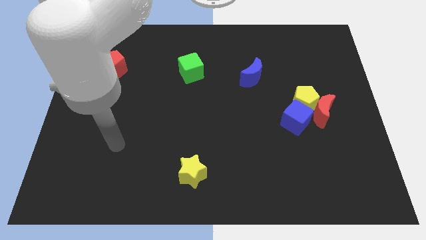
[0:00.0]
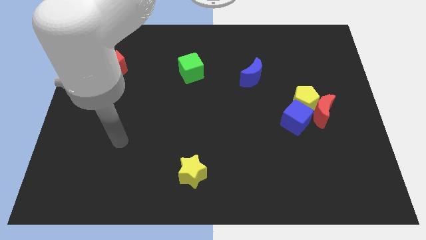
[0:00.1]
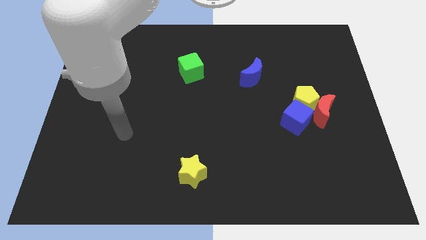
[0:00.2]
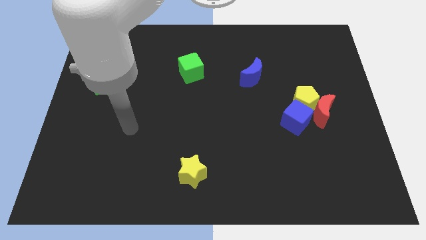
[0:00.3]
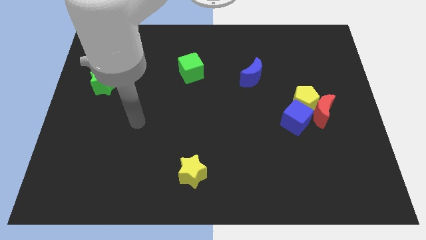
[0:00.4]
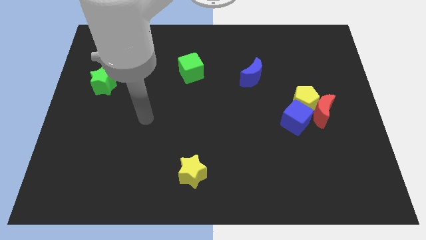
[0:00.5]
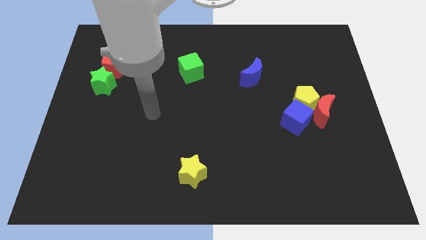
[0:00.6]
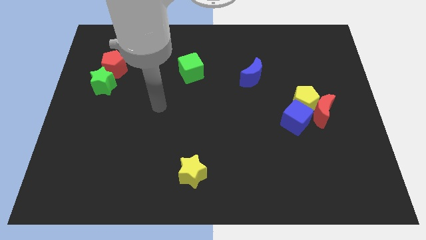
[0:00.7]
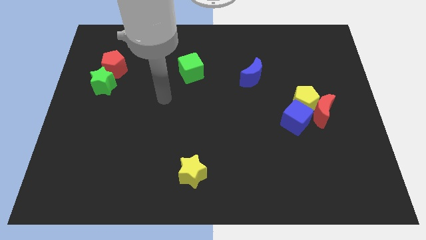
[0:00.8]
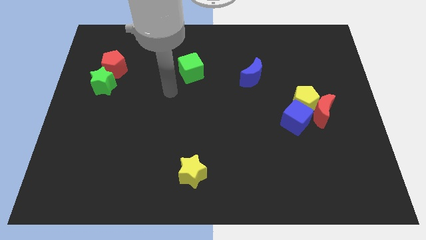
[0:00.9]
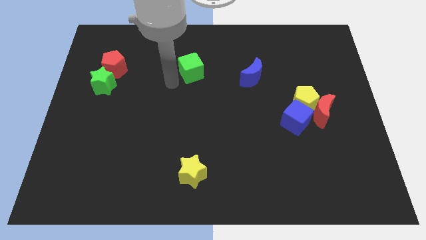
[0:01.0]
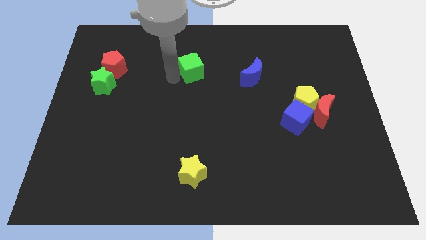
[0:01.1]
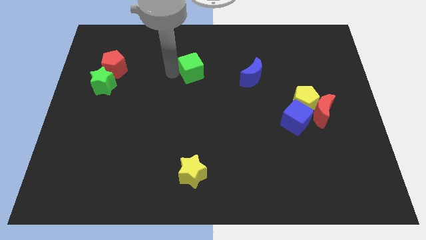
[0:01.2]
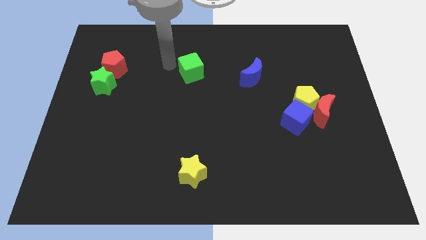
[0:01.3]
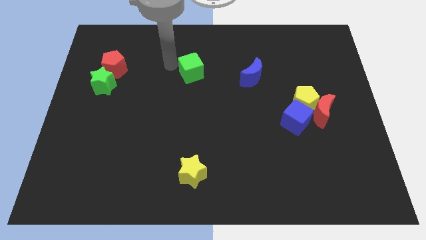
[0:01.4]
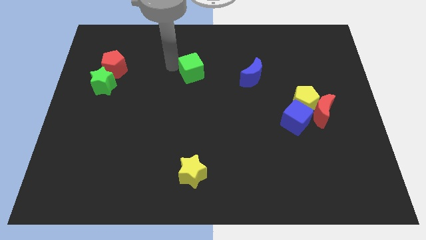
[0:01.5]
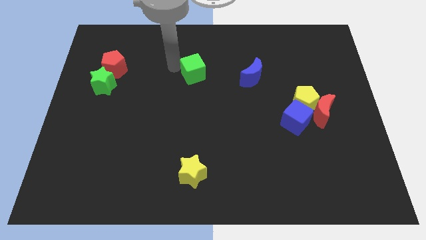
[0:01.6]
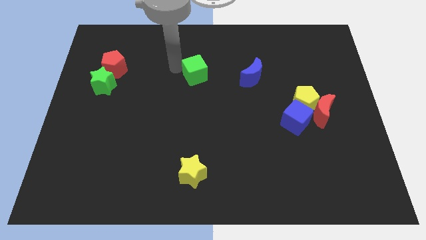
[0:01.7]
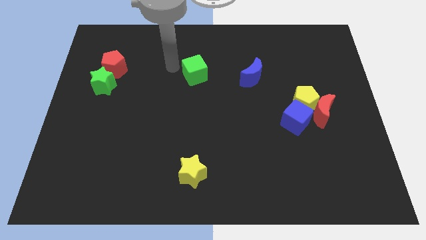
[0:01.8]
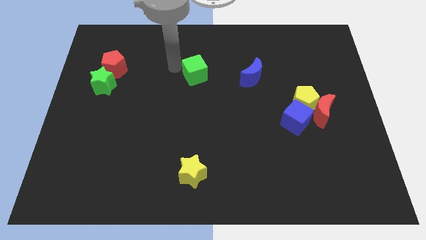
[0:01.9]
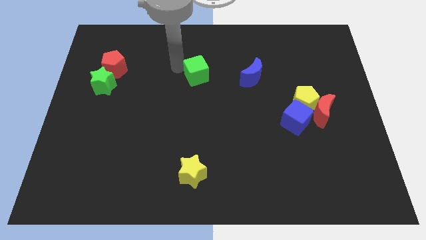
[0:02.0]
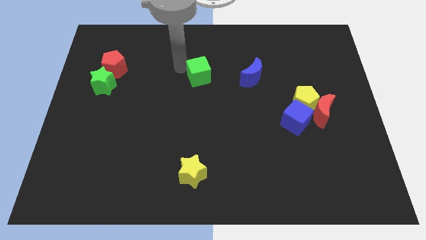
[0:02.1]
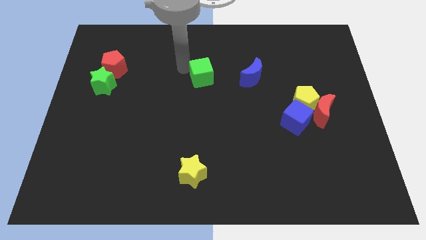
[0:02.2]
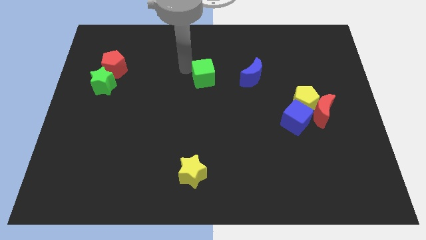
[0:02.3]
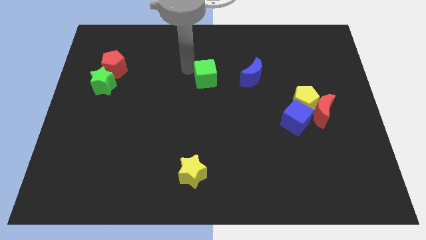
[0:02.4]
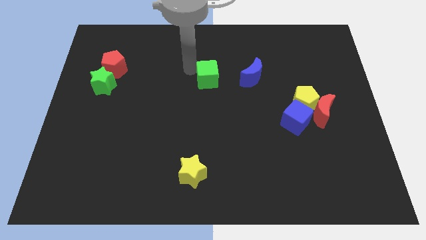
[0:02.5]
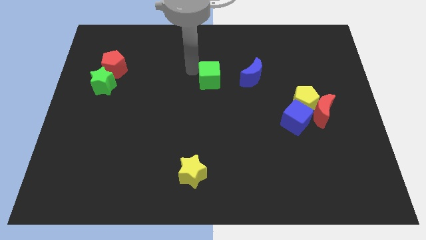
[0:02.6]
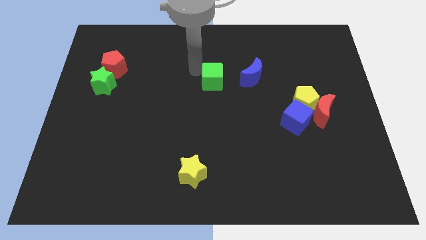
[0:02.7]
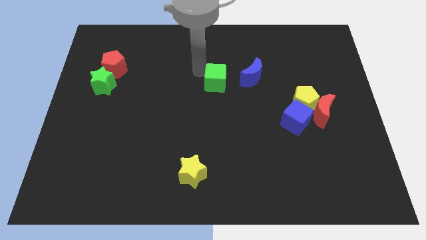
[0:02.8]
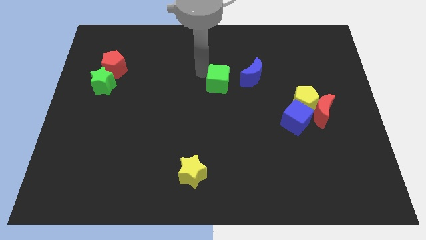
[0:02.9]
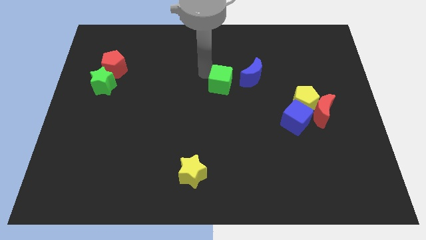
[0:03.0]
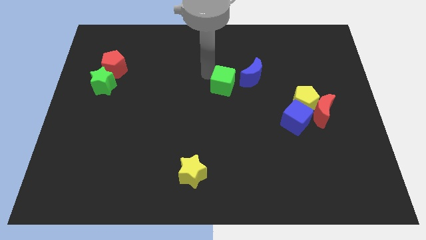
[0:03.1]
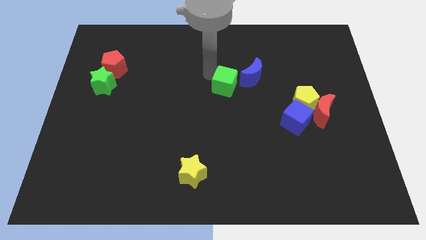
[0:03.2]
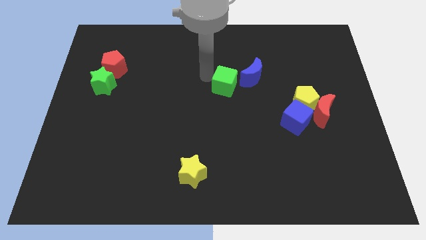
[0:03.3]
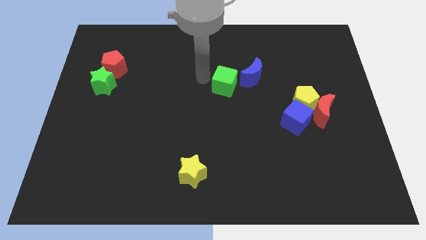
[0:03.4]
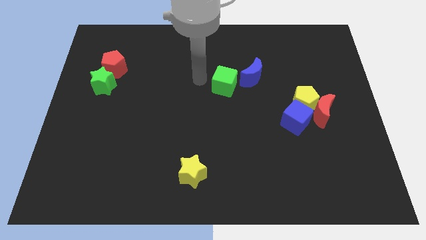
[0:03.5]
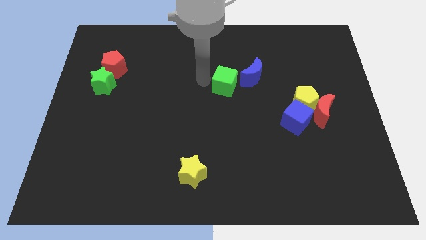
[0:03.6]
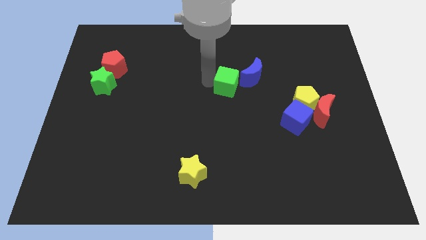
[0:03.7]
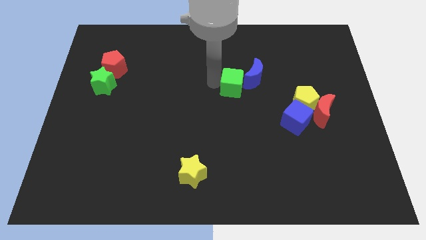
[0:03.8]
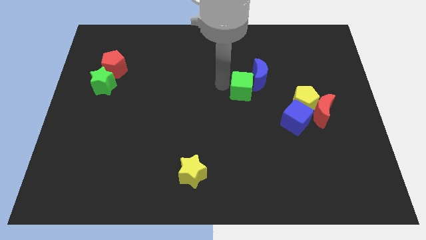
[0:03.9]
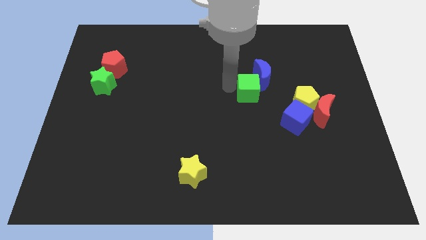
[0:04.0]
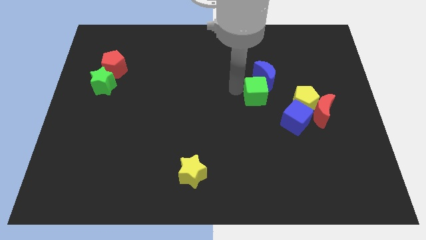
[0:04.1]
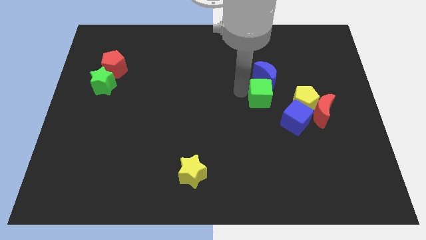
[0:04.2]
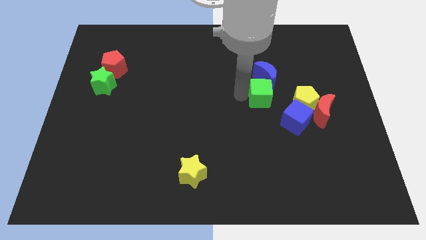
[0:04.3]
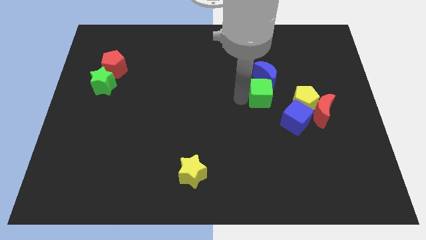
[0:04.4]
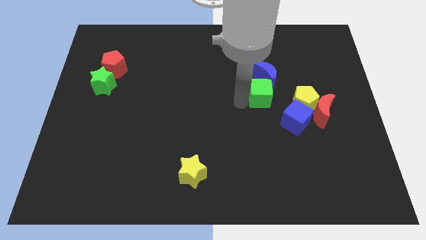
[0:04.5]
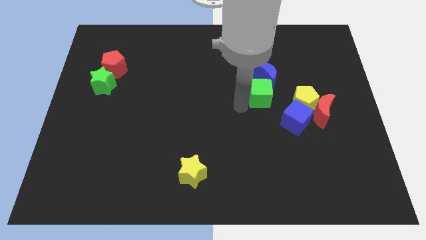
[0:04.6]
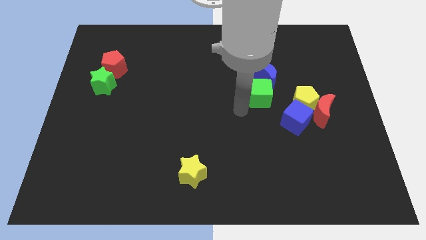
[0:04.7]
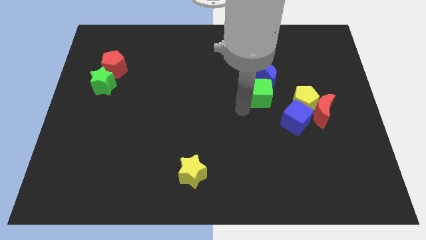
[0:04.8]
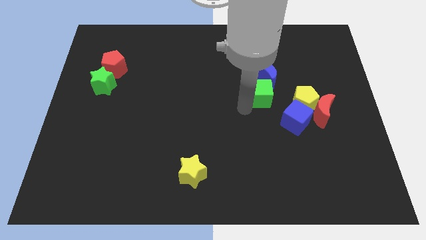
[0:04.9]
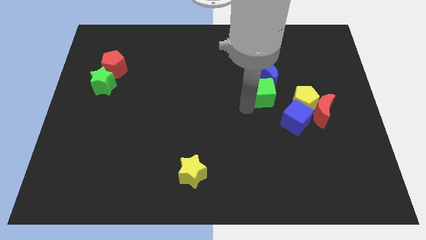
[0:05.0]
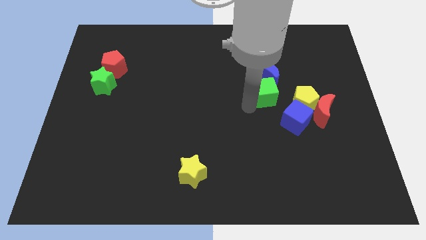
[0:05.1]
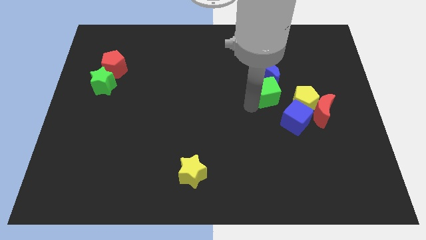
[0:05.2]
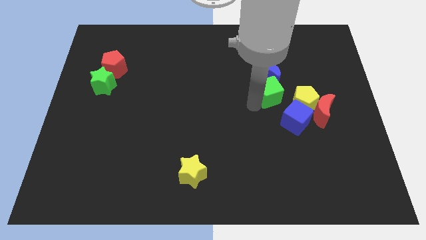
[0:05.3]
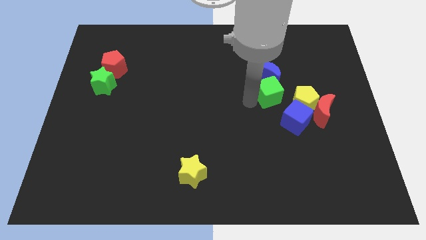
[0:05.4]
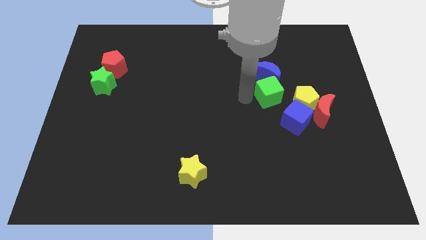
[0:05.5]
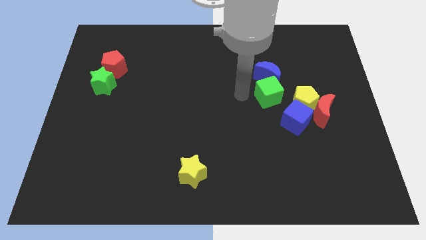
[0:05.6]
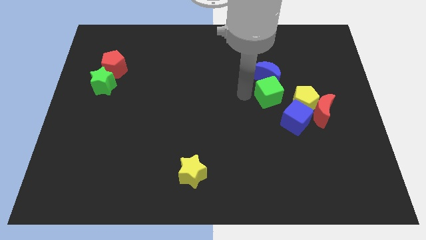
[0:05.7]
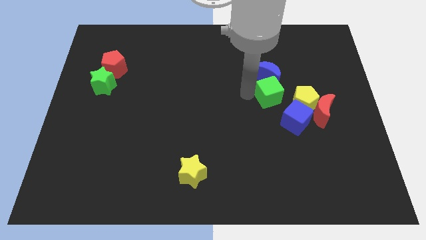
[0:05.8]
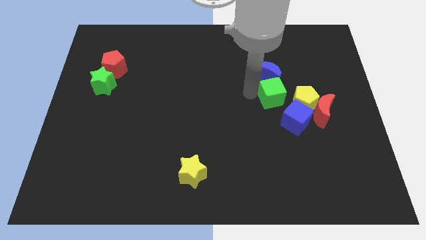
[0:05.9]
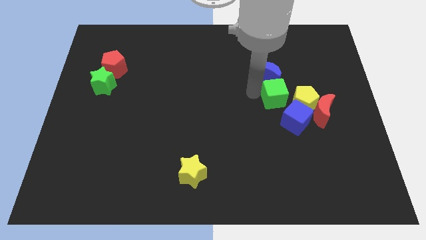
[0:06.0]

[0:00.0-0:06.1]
push the green cube diagonally up and to the left of the red moon

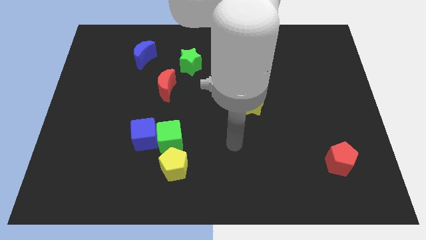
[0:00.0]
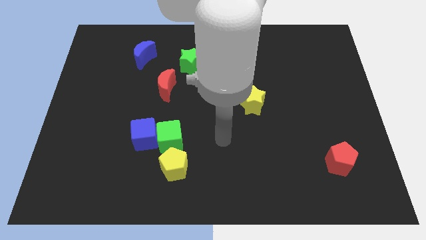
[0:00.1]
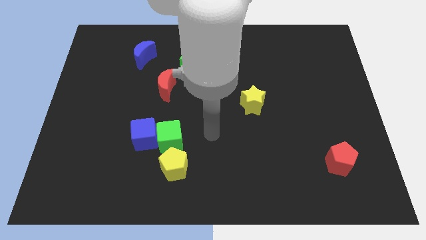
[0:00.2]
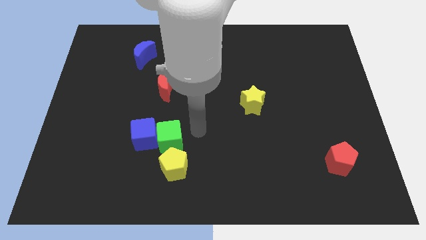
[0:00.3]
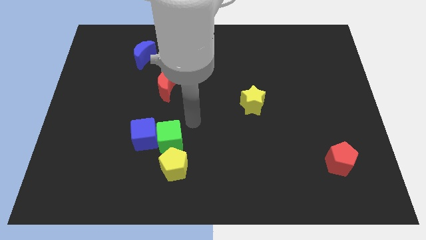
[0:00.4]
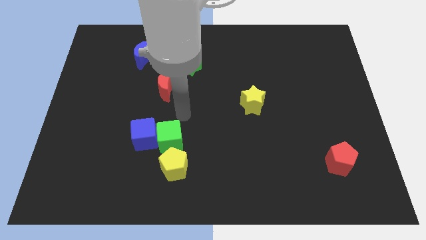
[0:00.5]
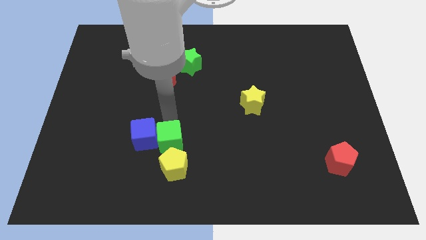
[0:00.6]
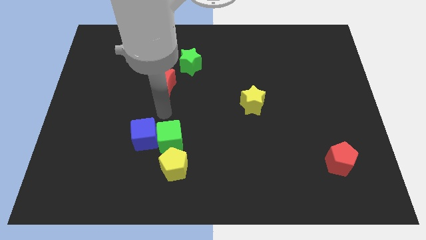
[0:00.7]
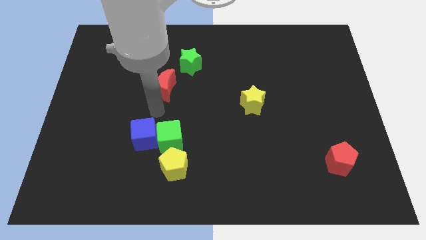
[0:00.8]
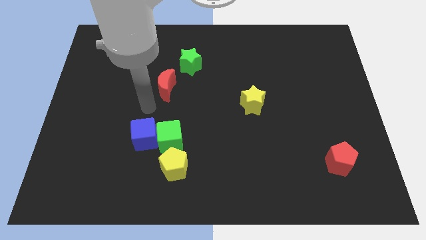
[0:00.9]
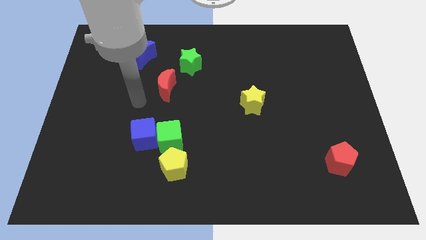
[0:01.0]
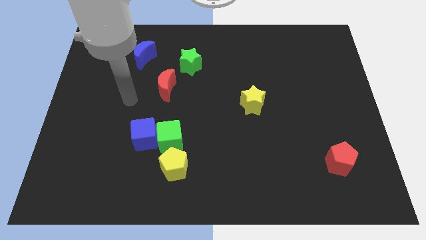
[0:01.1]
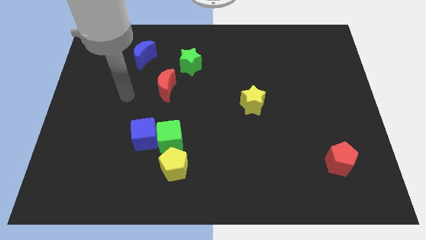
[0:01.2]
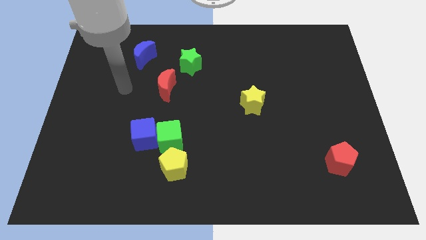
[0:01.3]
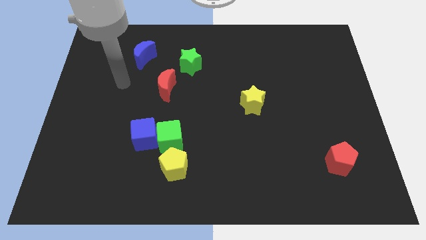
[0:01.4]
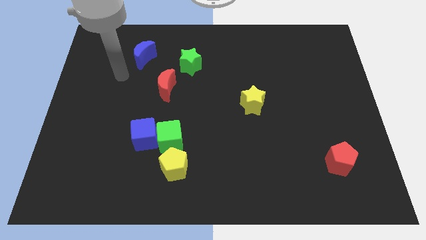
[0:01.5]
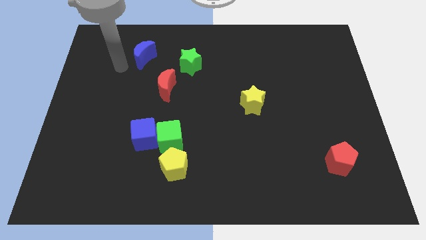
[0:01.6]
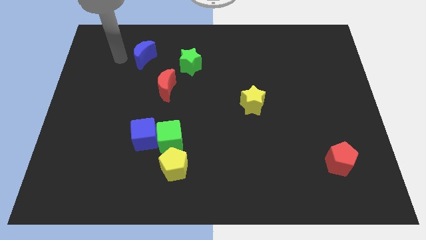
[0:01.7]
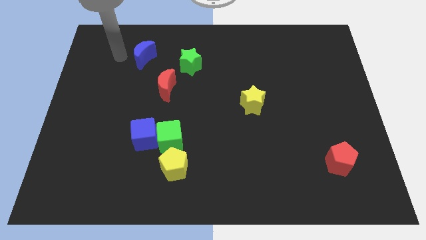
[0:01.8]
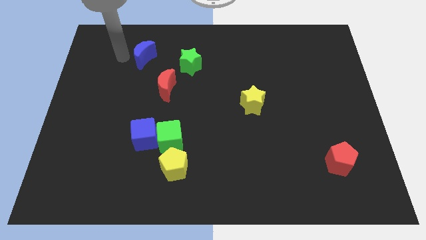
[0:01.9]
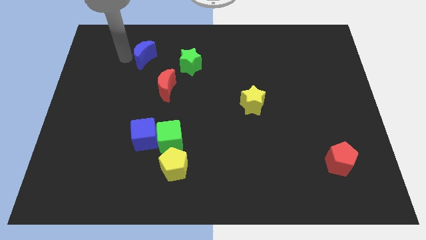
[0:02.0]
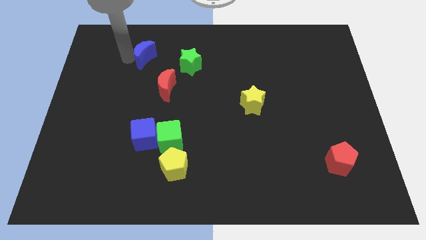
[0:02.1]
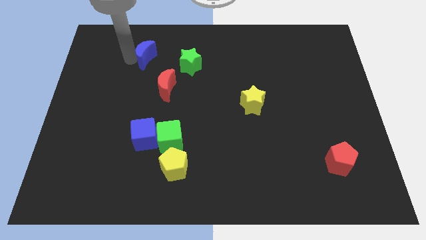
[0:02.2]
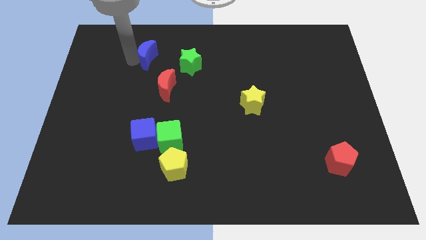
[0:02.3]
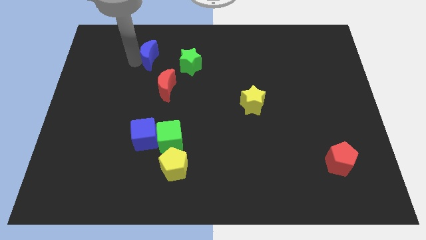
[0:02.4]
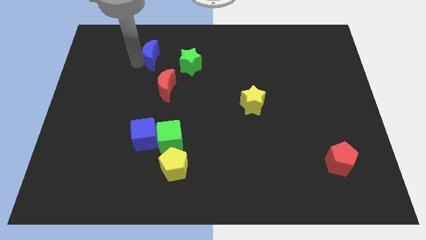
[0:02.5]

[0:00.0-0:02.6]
move the blue moon to the top side of the red moon
